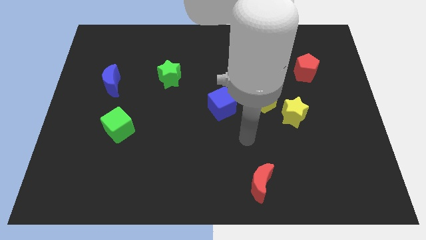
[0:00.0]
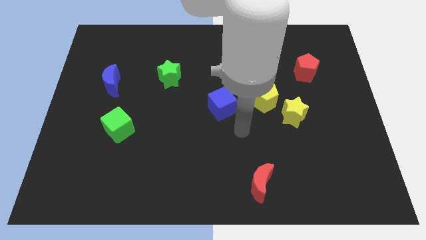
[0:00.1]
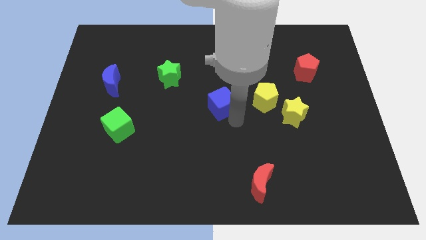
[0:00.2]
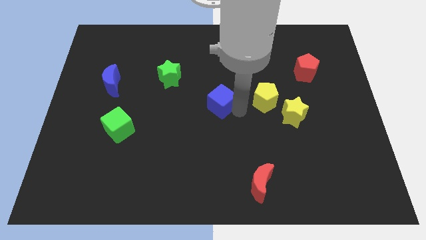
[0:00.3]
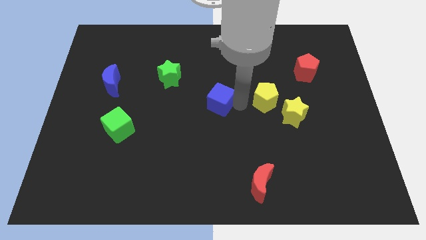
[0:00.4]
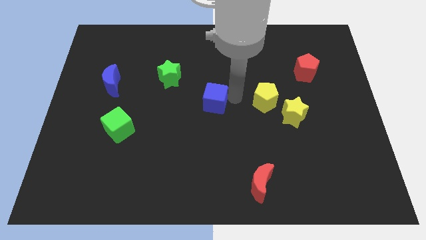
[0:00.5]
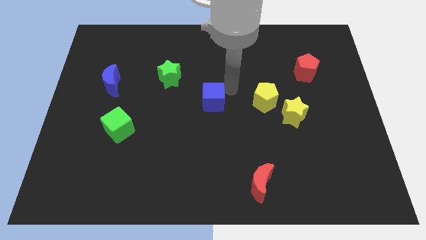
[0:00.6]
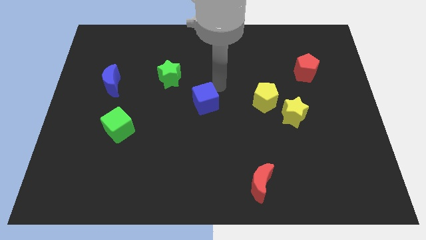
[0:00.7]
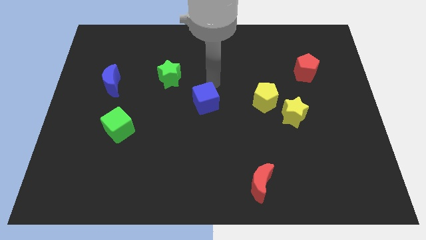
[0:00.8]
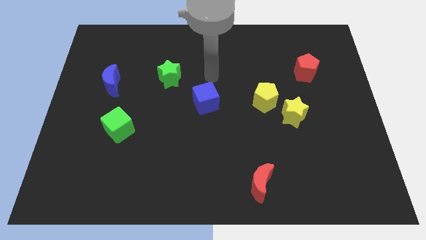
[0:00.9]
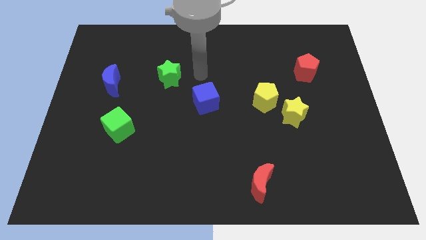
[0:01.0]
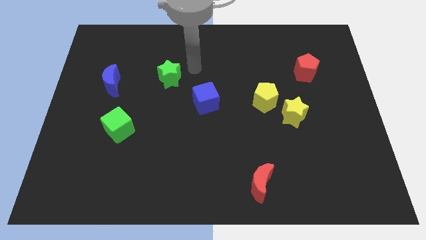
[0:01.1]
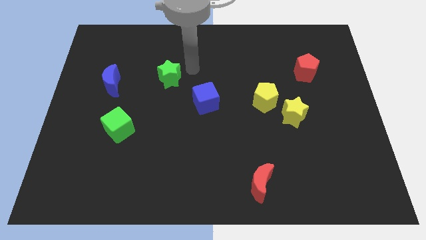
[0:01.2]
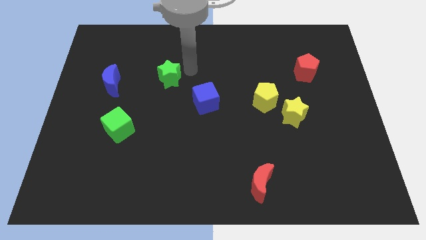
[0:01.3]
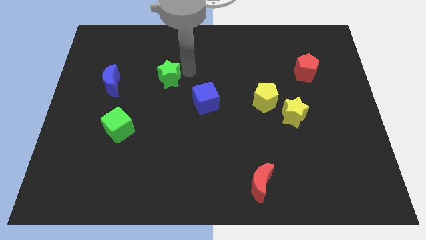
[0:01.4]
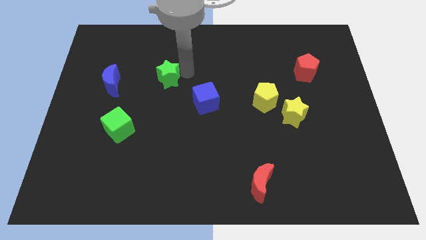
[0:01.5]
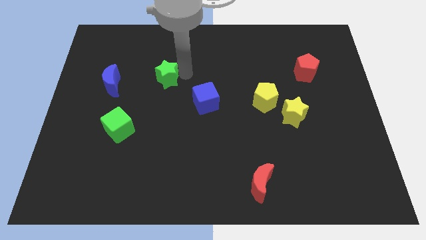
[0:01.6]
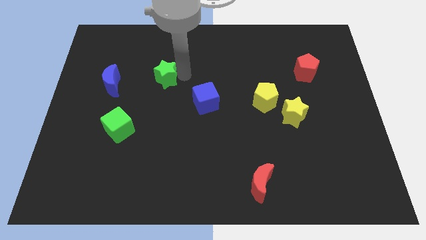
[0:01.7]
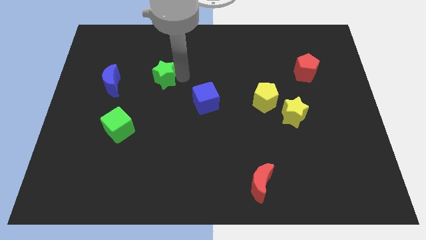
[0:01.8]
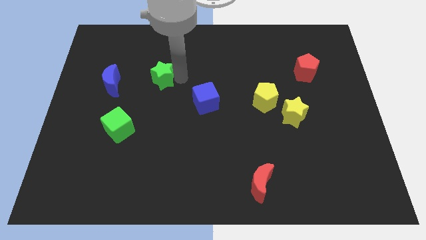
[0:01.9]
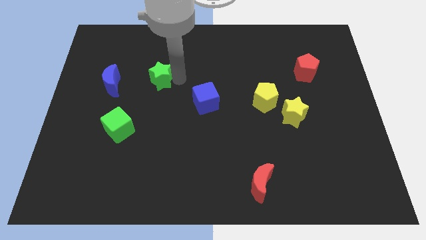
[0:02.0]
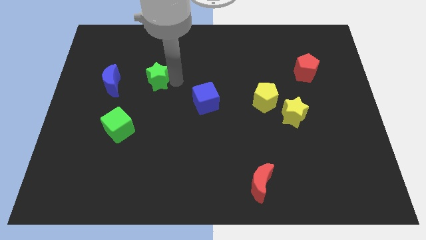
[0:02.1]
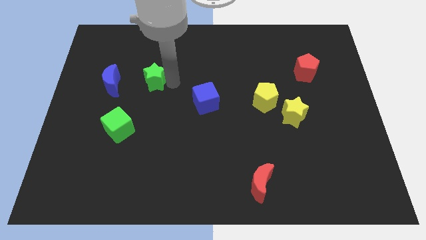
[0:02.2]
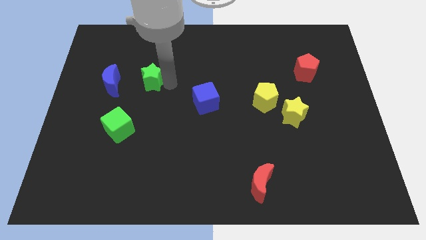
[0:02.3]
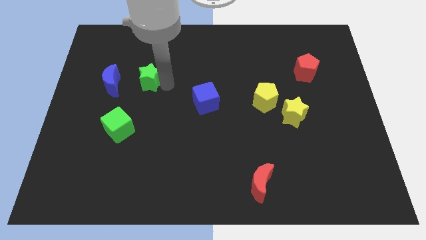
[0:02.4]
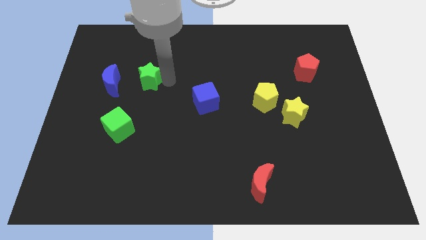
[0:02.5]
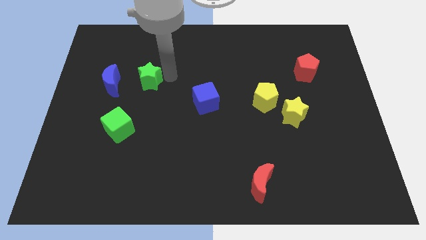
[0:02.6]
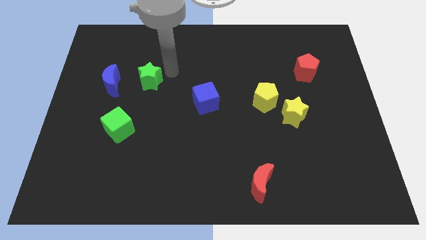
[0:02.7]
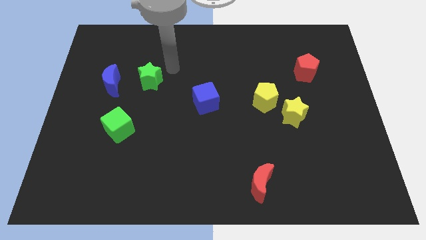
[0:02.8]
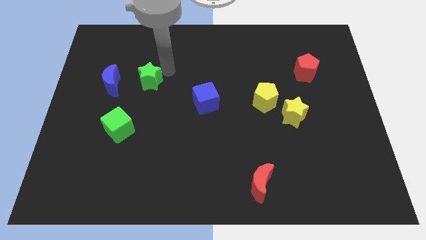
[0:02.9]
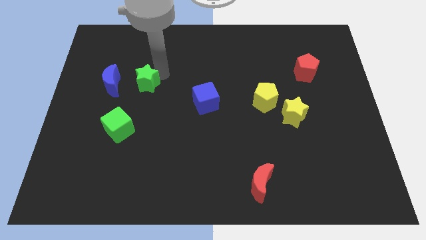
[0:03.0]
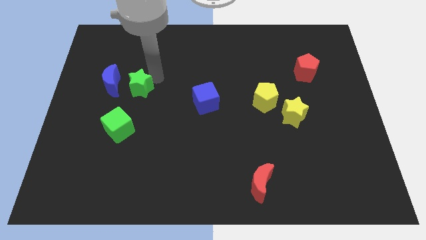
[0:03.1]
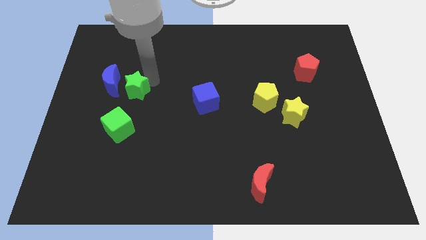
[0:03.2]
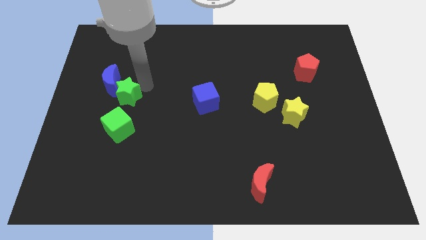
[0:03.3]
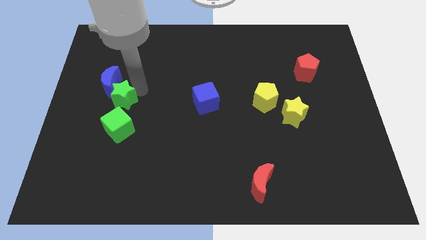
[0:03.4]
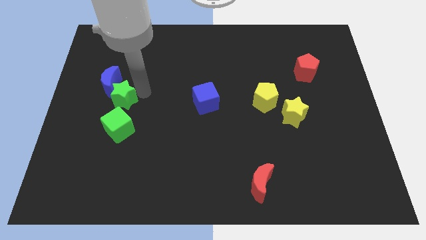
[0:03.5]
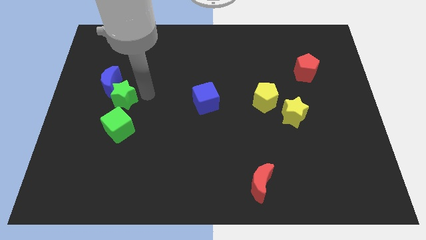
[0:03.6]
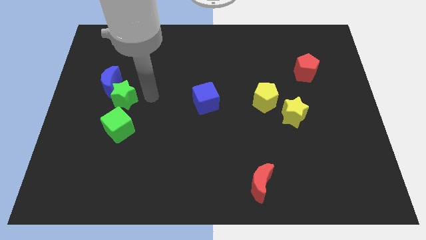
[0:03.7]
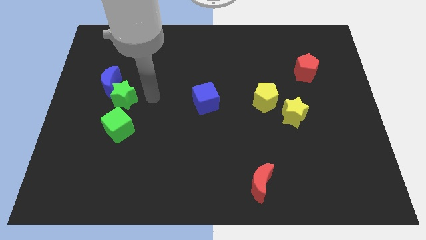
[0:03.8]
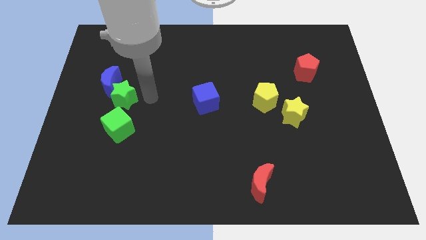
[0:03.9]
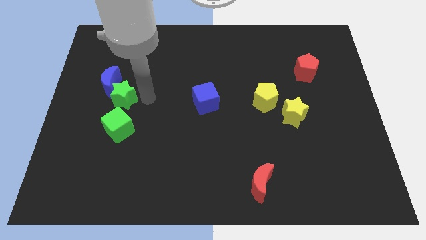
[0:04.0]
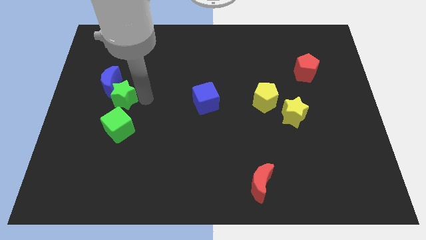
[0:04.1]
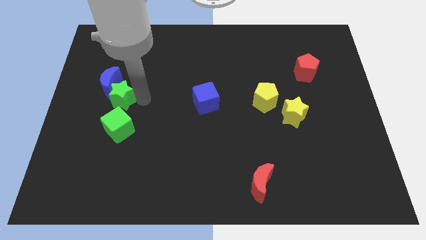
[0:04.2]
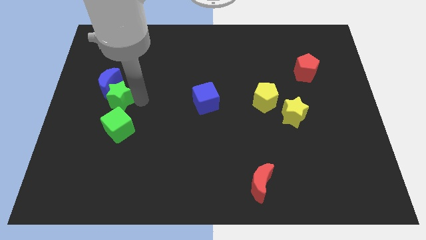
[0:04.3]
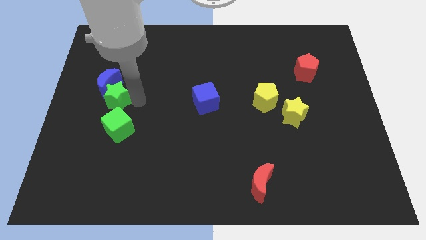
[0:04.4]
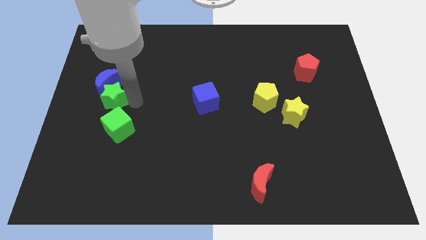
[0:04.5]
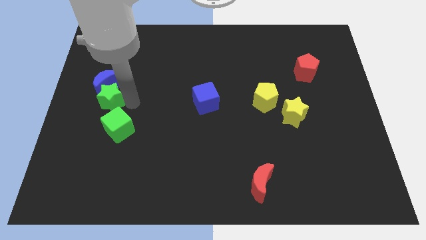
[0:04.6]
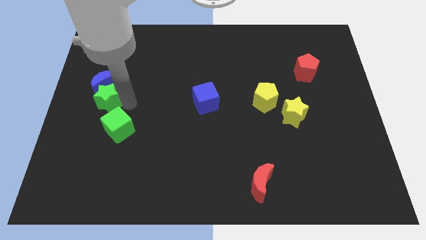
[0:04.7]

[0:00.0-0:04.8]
move the green star to the center left

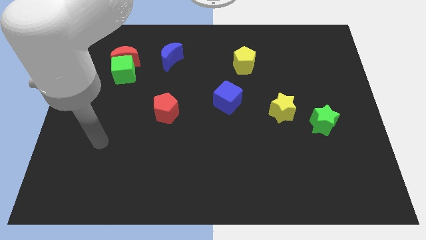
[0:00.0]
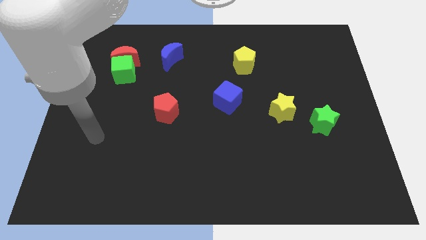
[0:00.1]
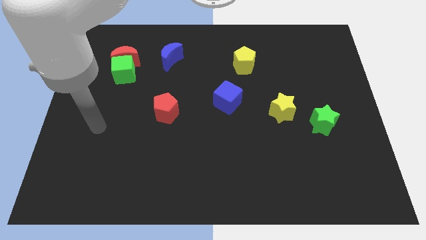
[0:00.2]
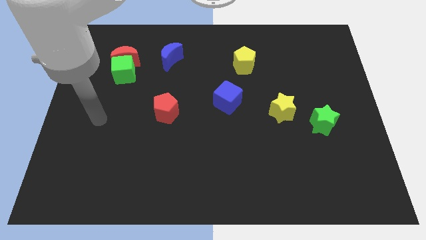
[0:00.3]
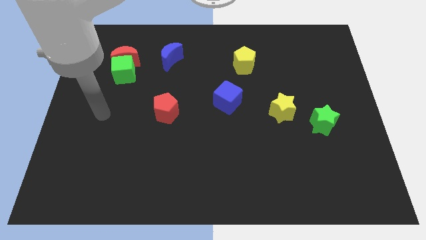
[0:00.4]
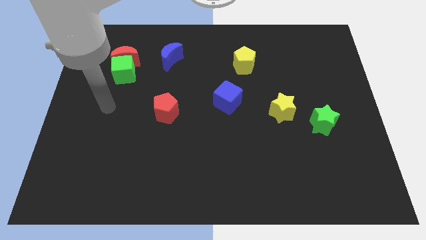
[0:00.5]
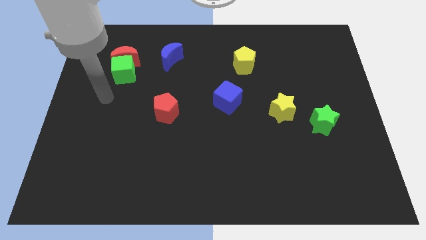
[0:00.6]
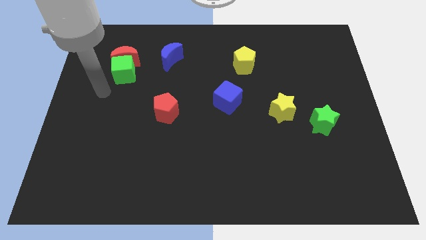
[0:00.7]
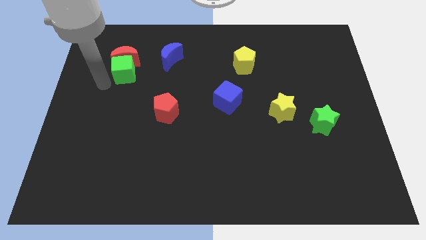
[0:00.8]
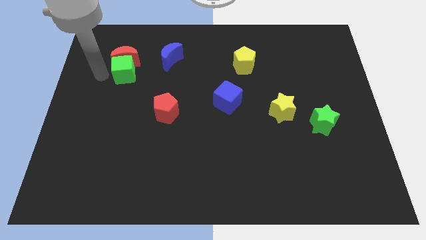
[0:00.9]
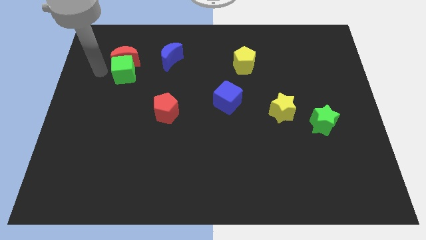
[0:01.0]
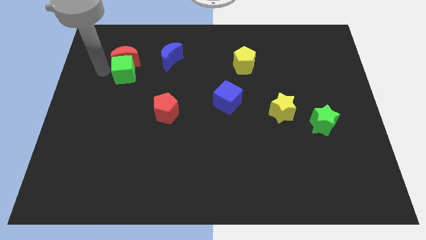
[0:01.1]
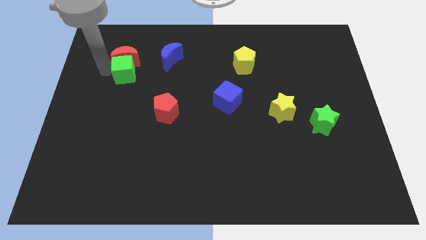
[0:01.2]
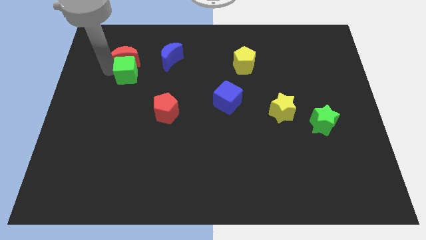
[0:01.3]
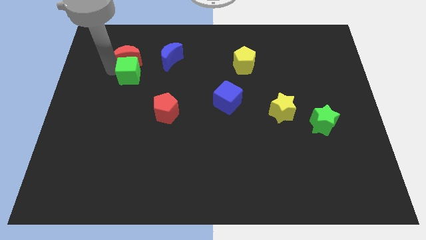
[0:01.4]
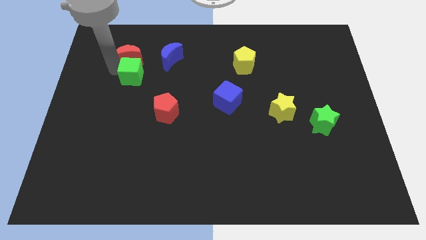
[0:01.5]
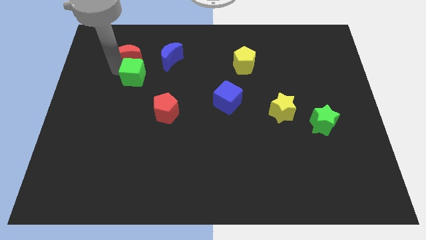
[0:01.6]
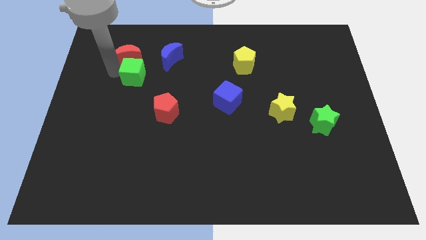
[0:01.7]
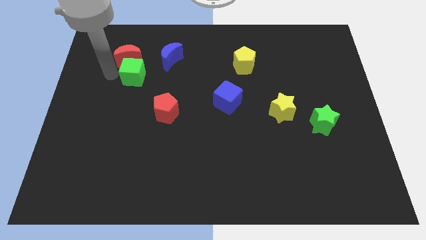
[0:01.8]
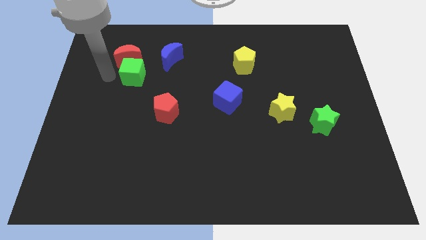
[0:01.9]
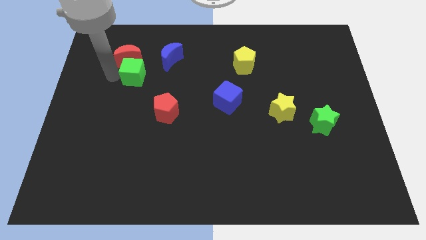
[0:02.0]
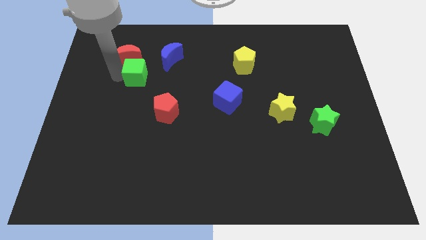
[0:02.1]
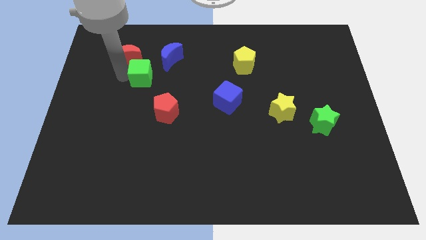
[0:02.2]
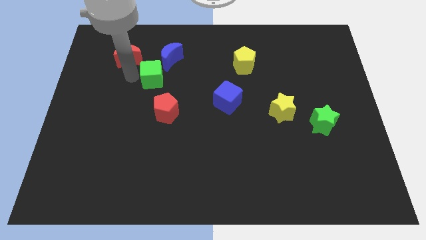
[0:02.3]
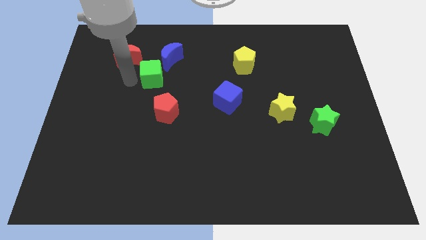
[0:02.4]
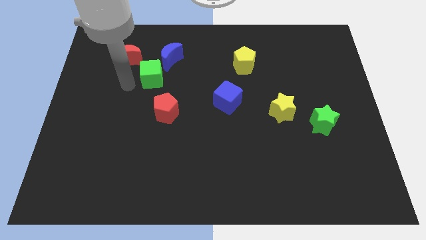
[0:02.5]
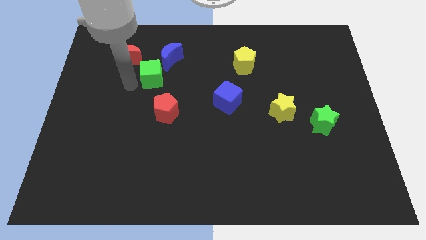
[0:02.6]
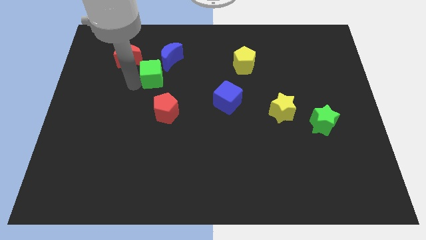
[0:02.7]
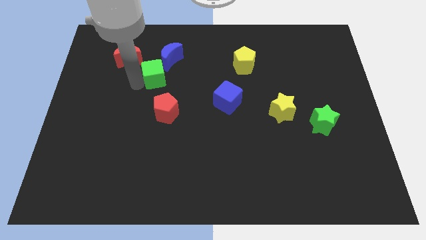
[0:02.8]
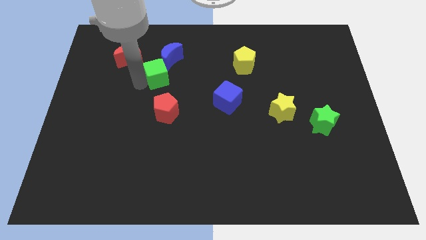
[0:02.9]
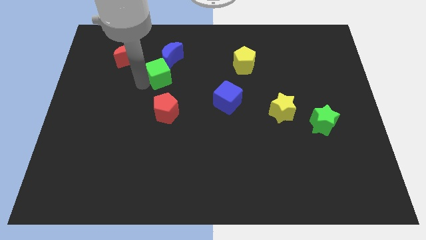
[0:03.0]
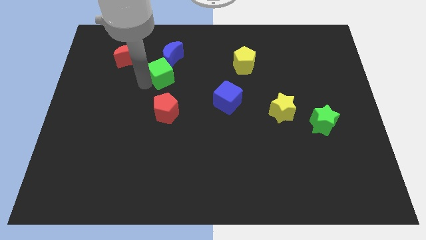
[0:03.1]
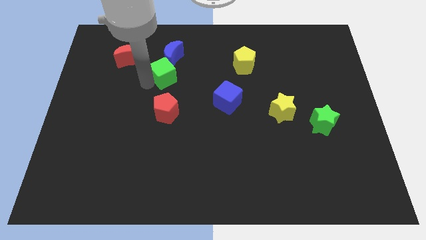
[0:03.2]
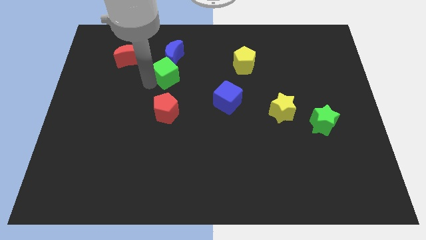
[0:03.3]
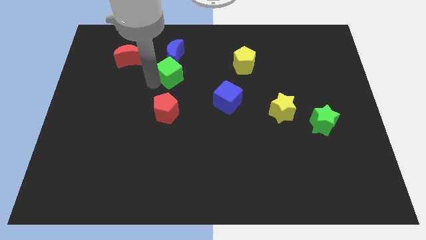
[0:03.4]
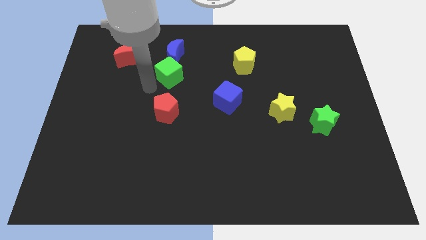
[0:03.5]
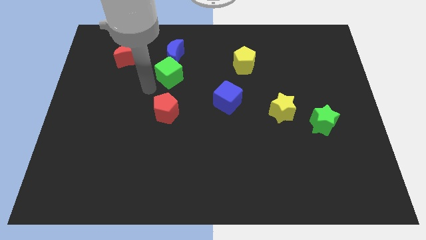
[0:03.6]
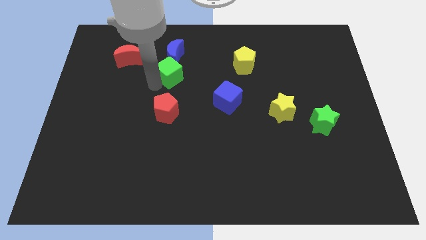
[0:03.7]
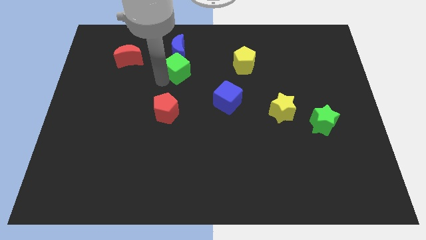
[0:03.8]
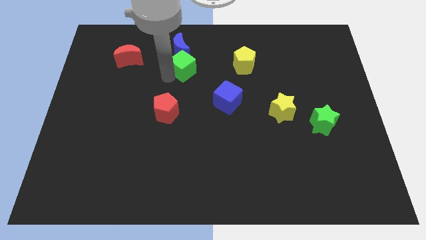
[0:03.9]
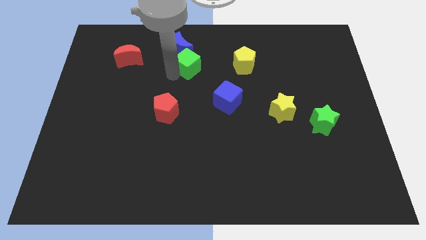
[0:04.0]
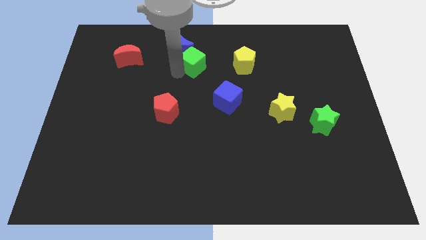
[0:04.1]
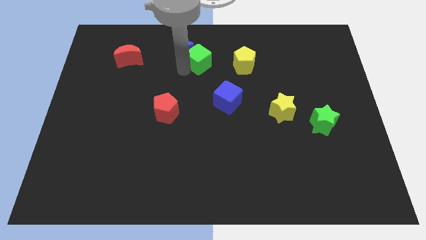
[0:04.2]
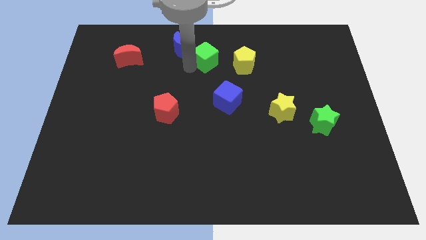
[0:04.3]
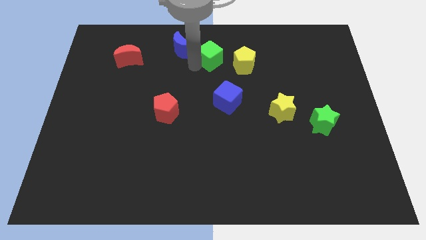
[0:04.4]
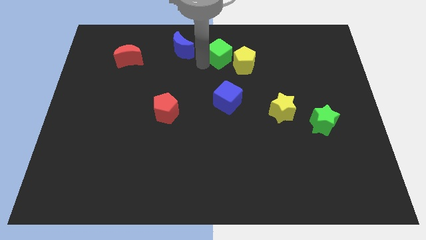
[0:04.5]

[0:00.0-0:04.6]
push the green cube to the top side
